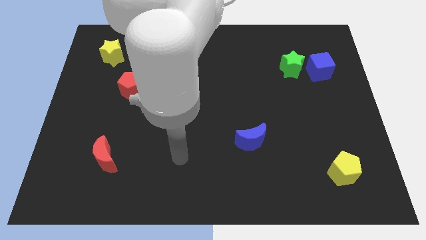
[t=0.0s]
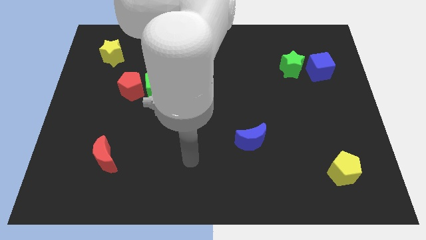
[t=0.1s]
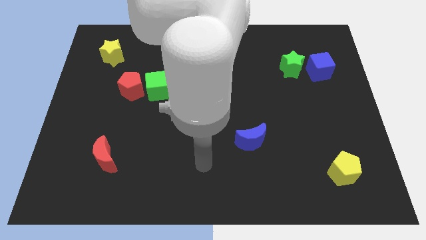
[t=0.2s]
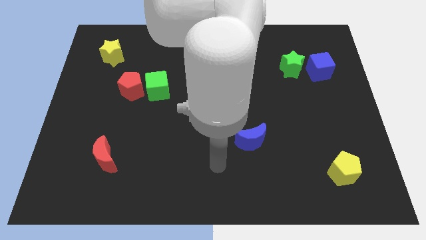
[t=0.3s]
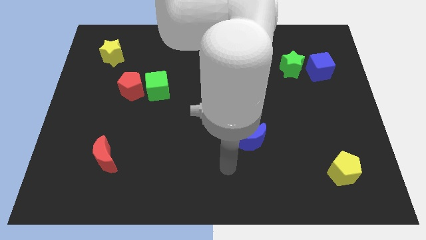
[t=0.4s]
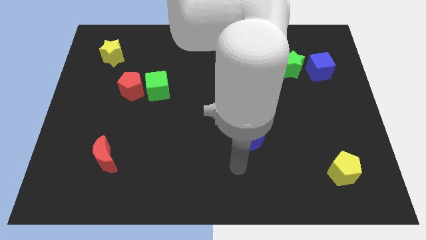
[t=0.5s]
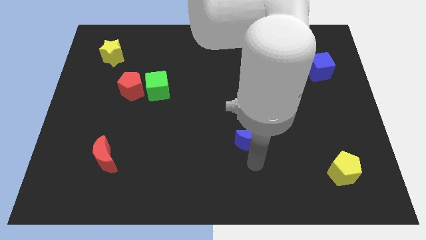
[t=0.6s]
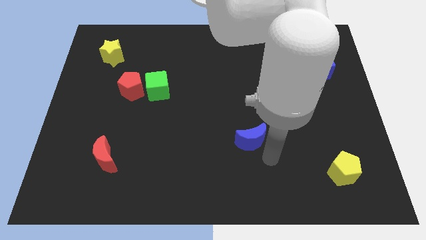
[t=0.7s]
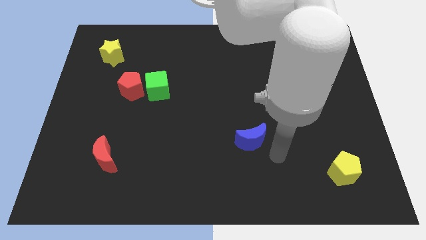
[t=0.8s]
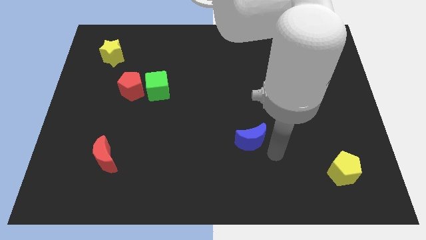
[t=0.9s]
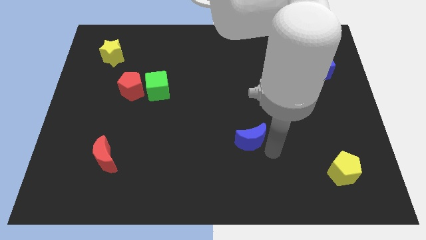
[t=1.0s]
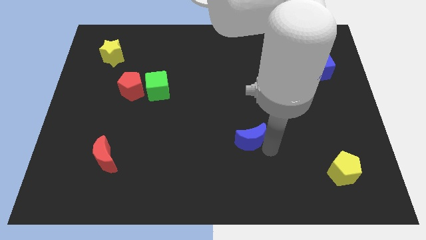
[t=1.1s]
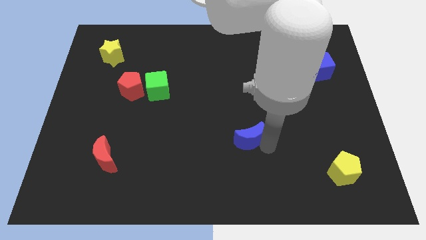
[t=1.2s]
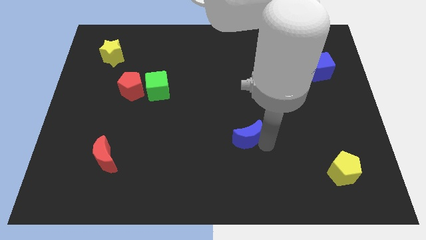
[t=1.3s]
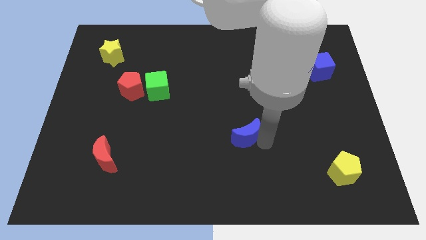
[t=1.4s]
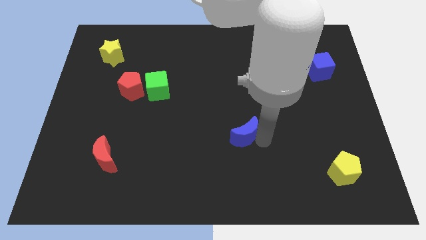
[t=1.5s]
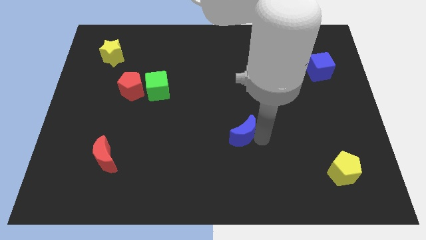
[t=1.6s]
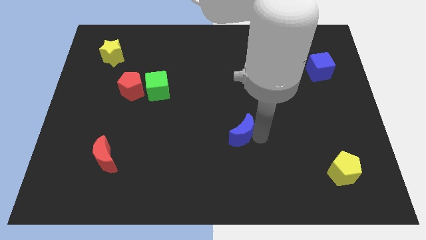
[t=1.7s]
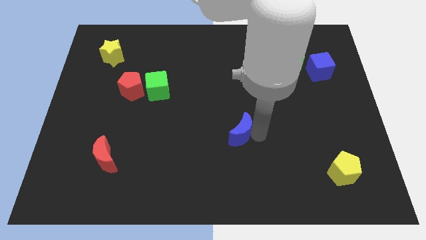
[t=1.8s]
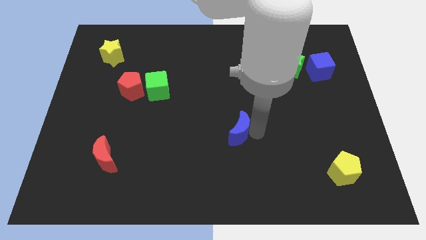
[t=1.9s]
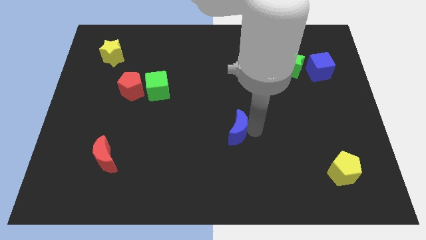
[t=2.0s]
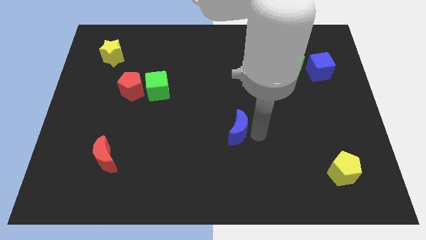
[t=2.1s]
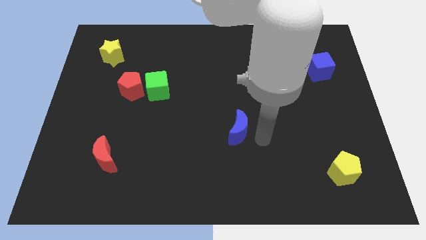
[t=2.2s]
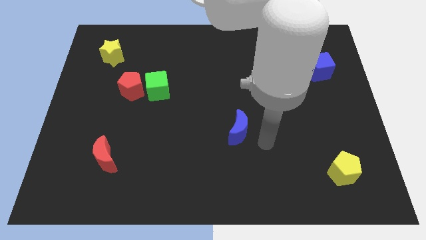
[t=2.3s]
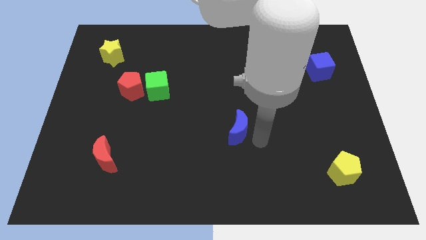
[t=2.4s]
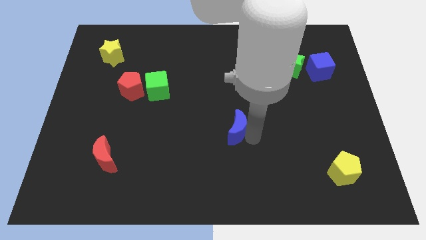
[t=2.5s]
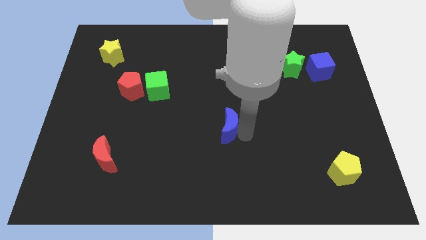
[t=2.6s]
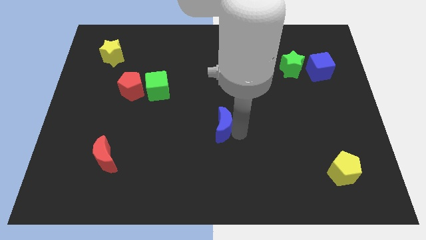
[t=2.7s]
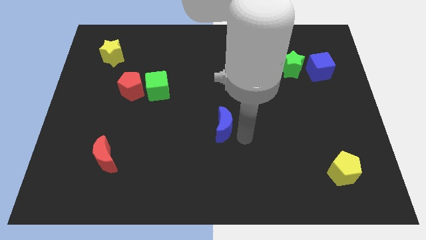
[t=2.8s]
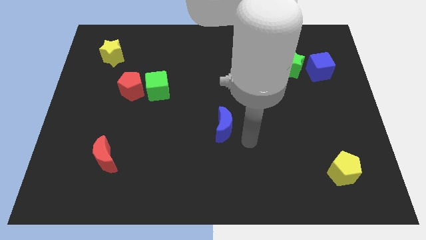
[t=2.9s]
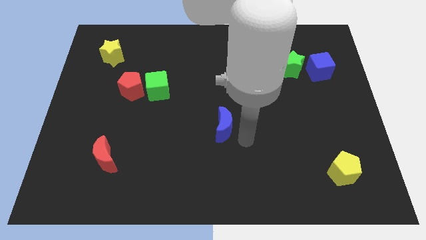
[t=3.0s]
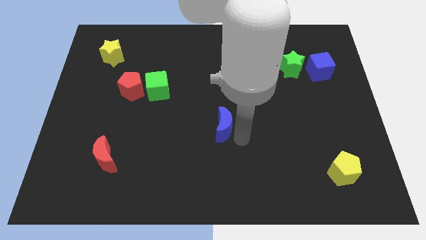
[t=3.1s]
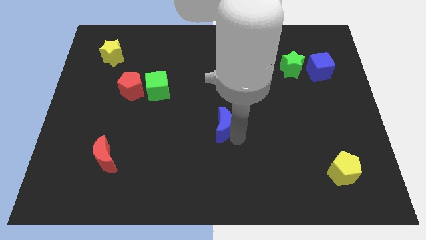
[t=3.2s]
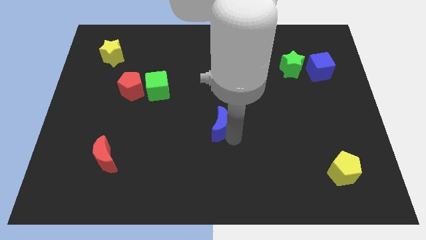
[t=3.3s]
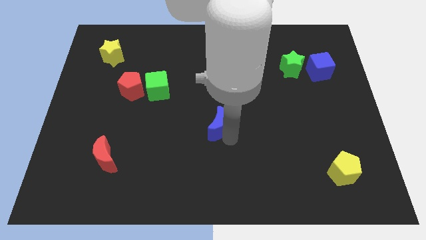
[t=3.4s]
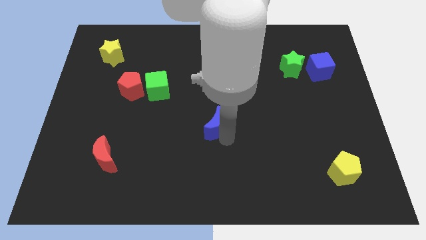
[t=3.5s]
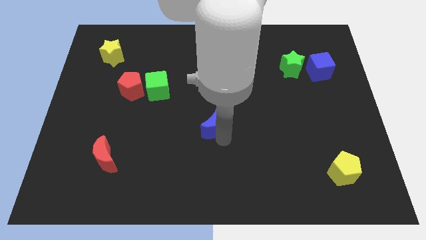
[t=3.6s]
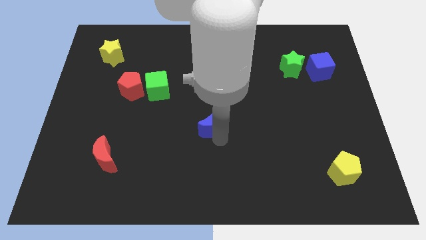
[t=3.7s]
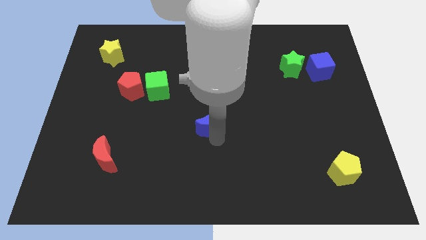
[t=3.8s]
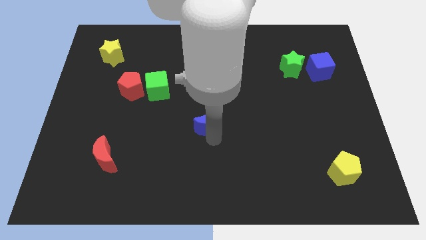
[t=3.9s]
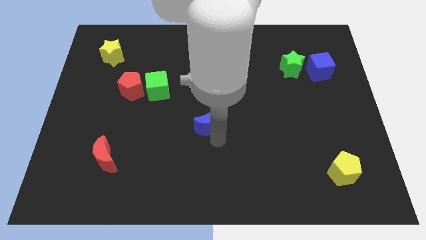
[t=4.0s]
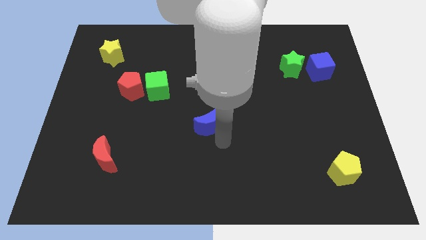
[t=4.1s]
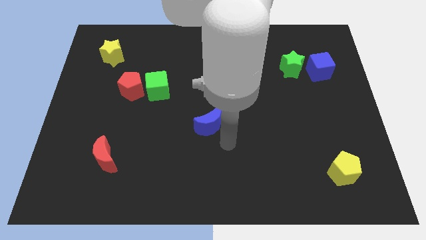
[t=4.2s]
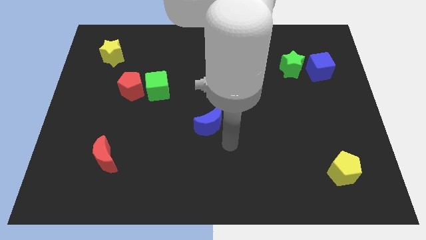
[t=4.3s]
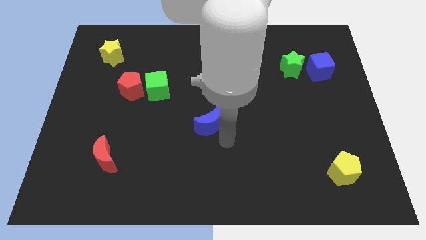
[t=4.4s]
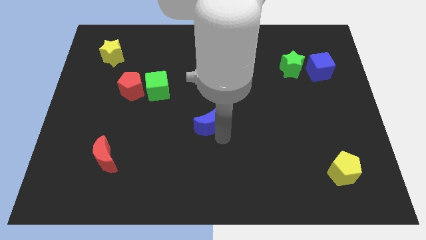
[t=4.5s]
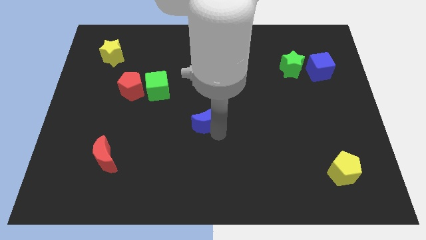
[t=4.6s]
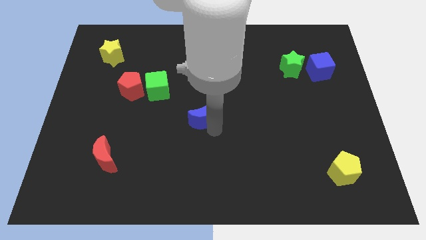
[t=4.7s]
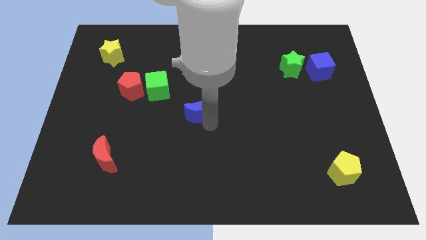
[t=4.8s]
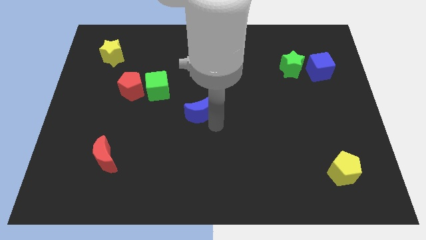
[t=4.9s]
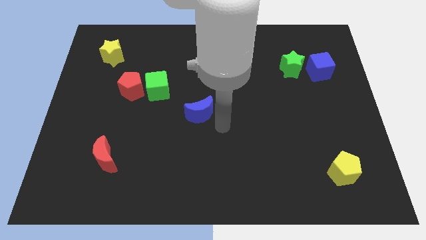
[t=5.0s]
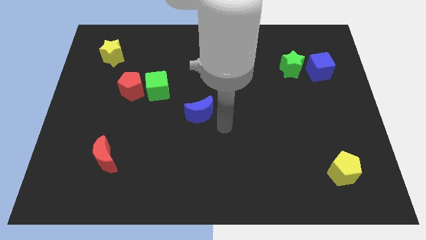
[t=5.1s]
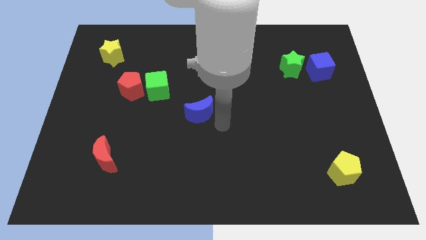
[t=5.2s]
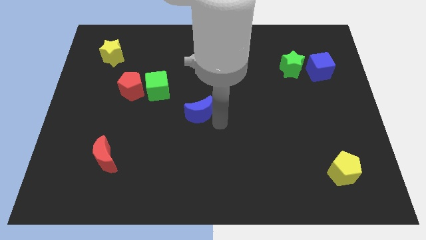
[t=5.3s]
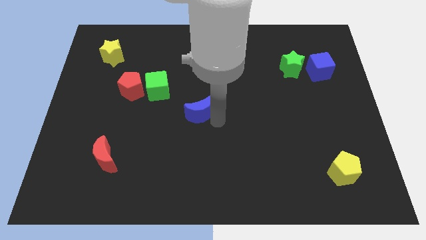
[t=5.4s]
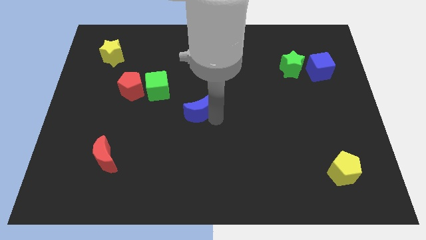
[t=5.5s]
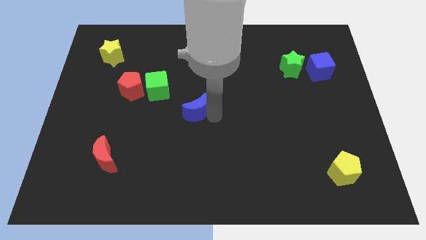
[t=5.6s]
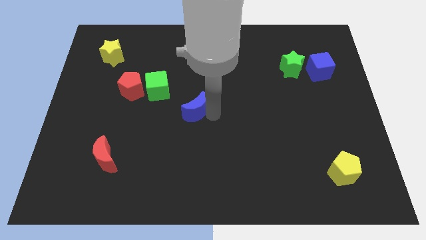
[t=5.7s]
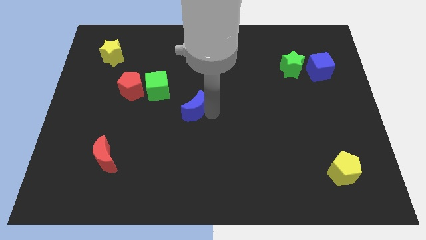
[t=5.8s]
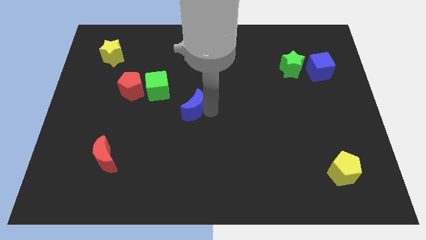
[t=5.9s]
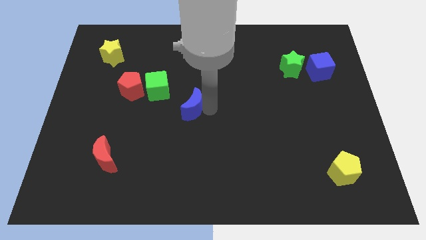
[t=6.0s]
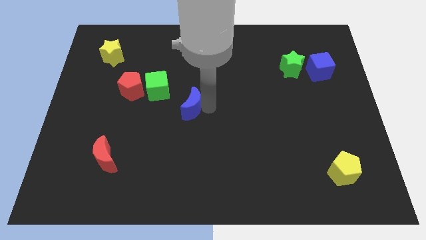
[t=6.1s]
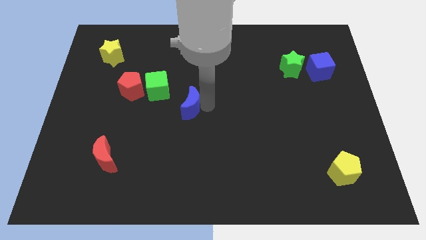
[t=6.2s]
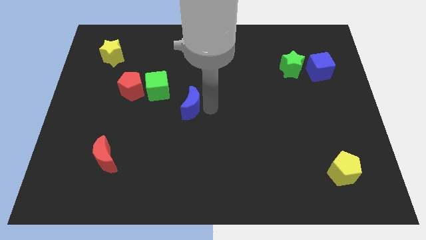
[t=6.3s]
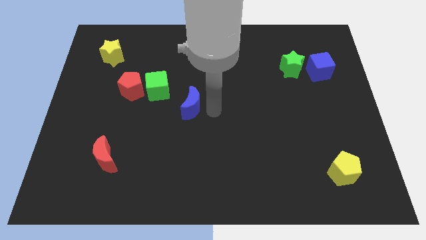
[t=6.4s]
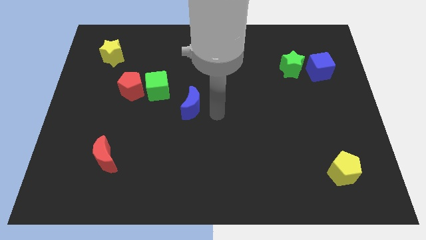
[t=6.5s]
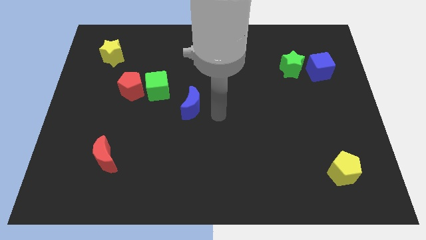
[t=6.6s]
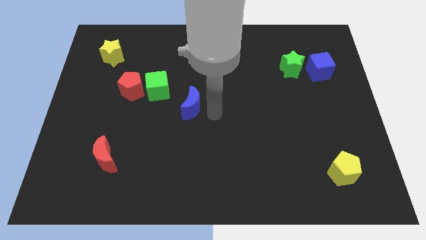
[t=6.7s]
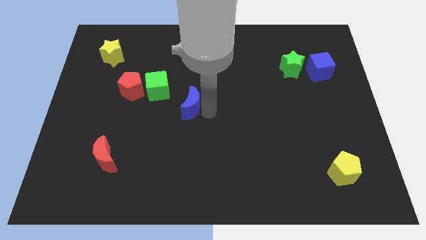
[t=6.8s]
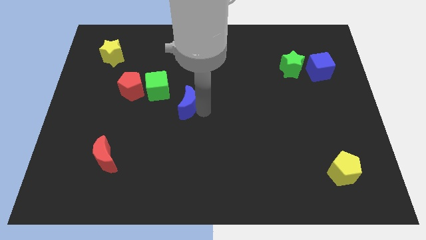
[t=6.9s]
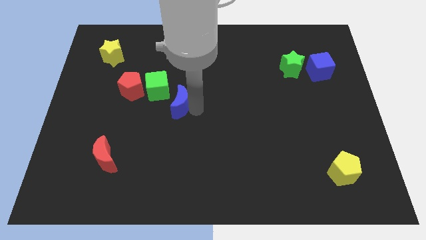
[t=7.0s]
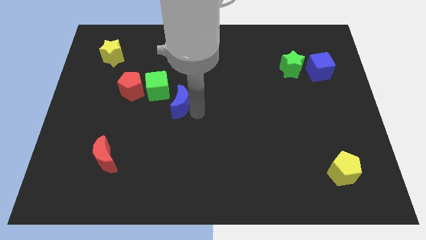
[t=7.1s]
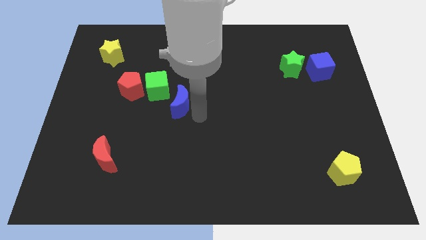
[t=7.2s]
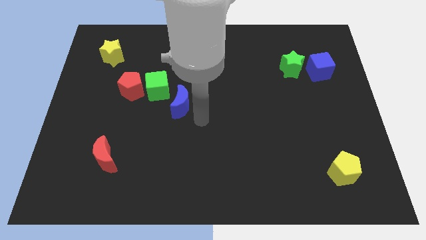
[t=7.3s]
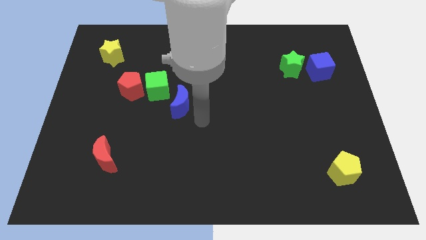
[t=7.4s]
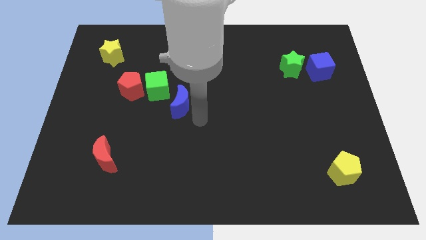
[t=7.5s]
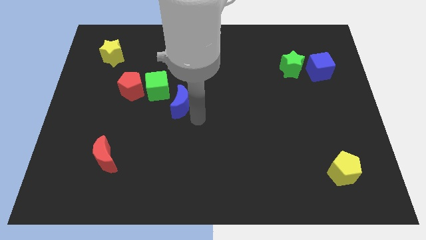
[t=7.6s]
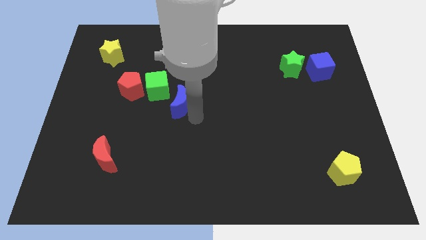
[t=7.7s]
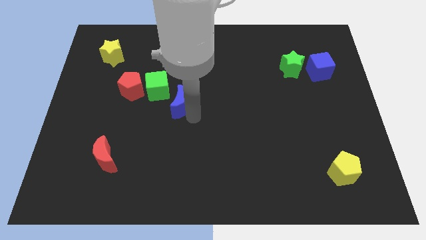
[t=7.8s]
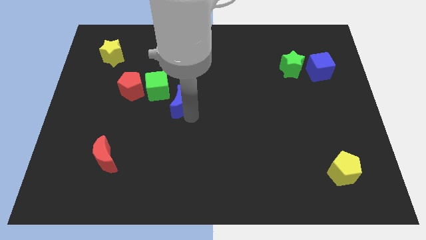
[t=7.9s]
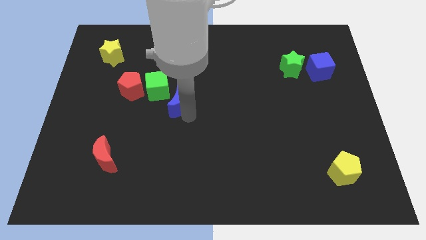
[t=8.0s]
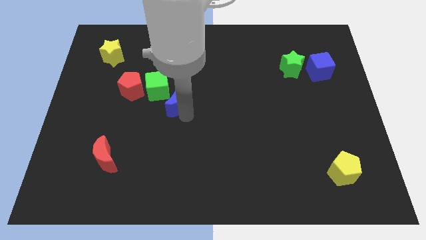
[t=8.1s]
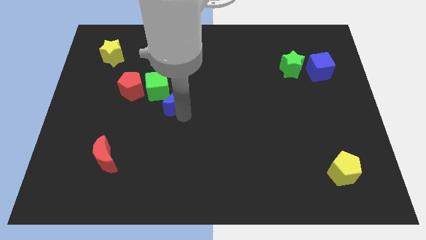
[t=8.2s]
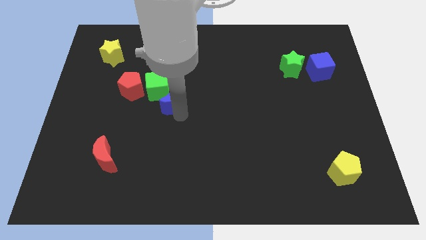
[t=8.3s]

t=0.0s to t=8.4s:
slide the blue moon to the green cube
